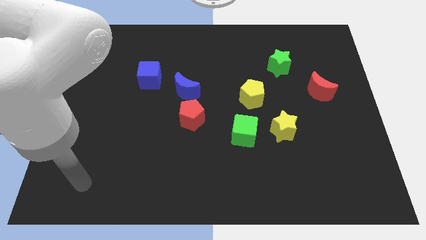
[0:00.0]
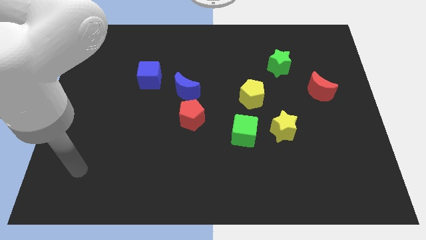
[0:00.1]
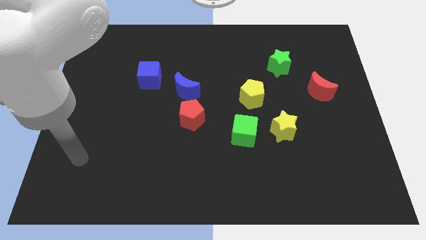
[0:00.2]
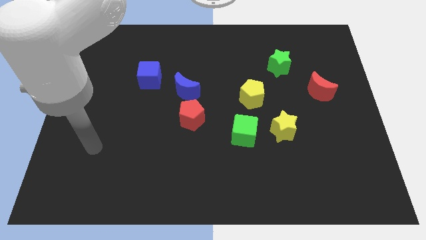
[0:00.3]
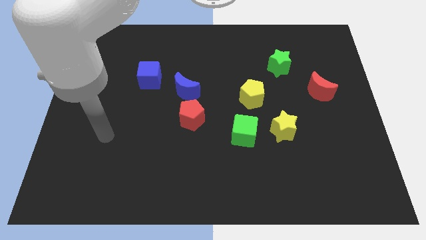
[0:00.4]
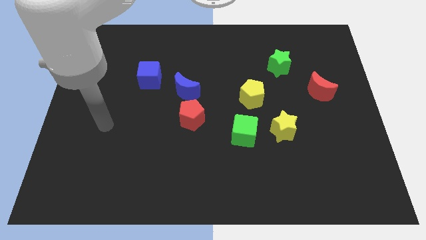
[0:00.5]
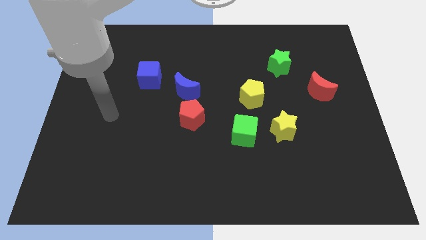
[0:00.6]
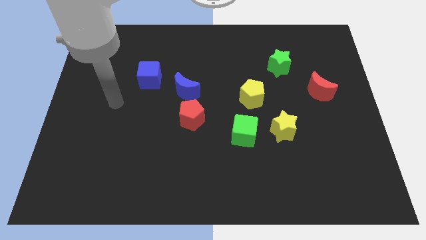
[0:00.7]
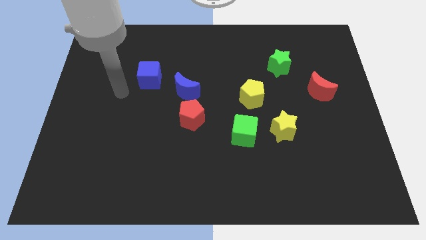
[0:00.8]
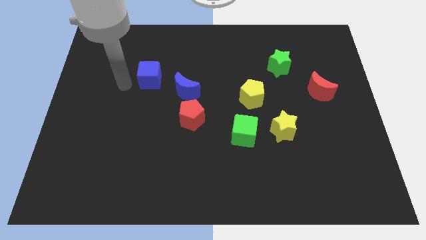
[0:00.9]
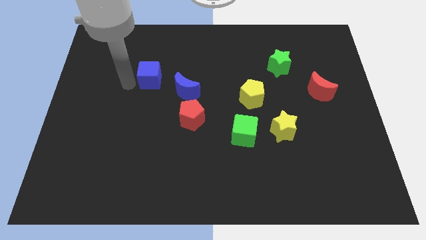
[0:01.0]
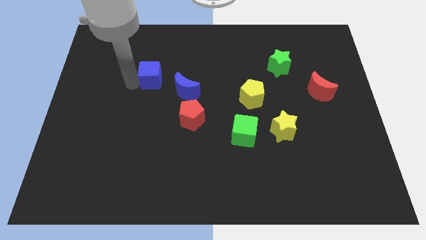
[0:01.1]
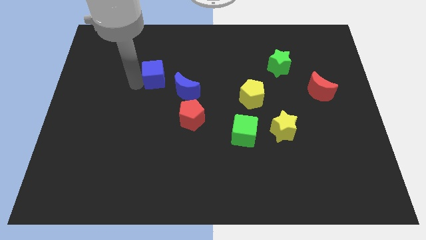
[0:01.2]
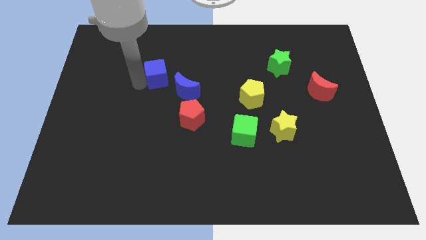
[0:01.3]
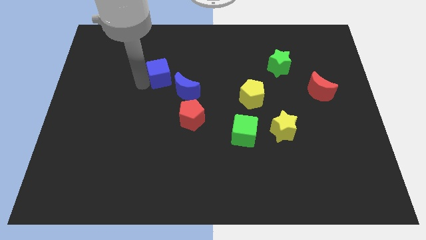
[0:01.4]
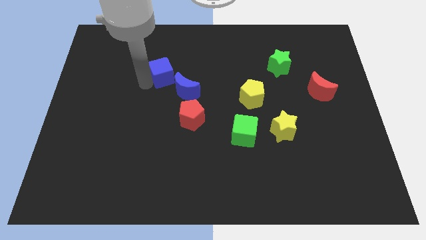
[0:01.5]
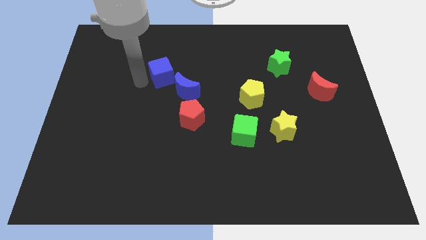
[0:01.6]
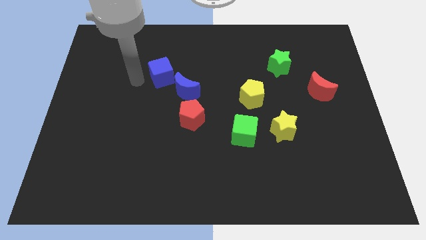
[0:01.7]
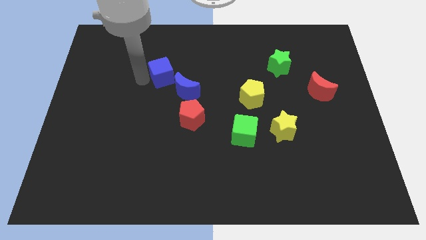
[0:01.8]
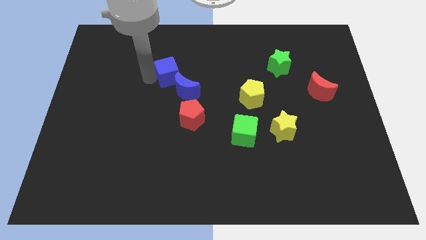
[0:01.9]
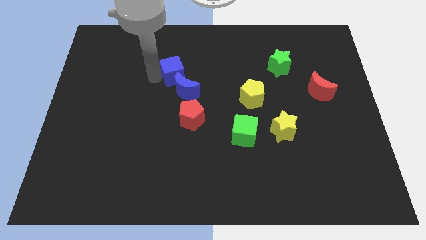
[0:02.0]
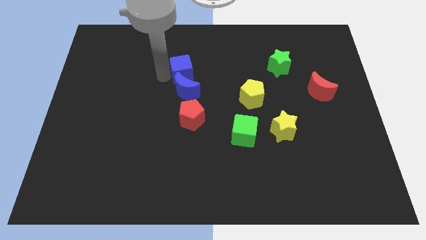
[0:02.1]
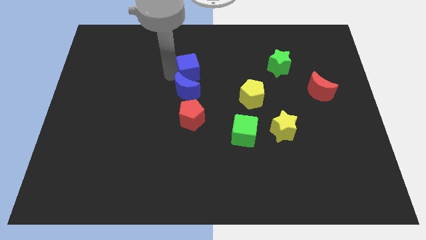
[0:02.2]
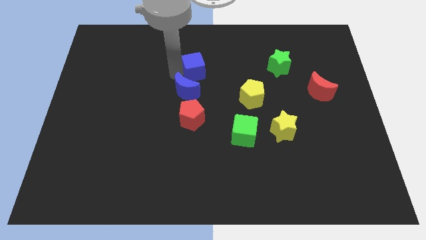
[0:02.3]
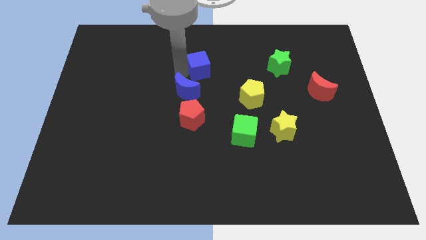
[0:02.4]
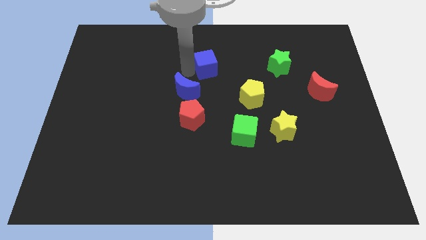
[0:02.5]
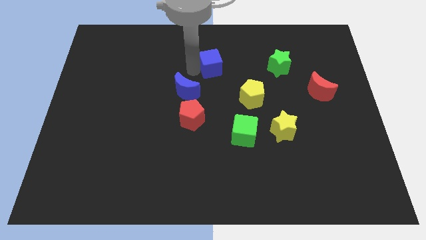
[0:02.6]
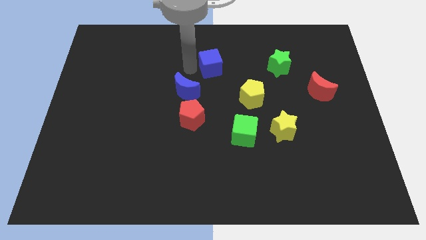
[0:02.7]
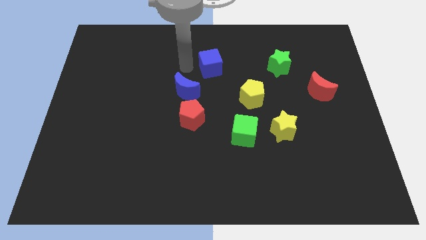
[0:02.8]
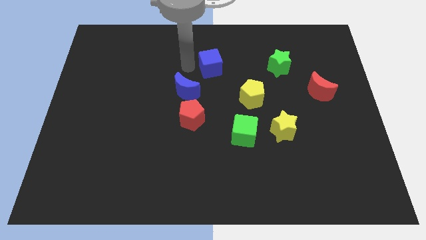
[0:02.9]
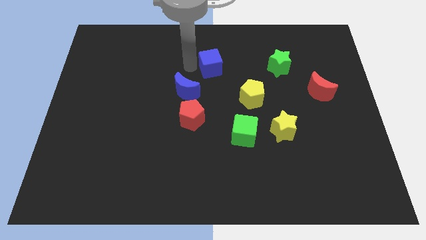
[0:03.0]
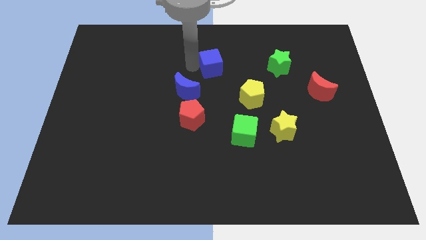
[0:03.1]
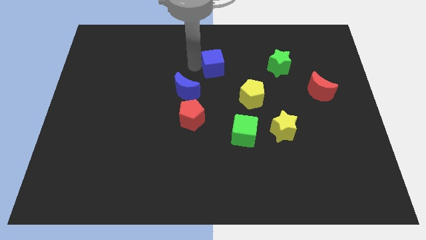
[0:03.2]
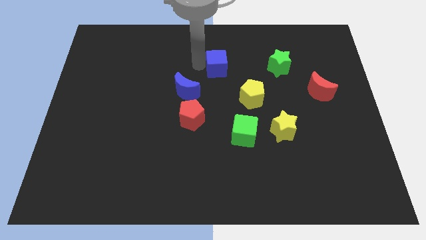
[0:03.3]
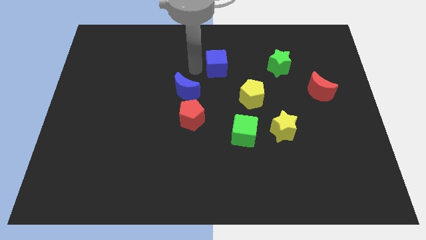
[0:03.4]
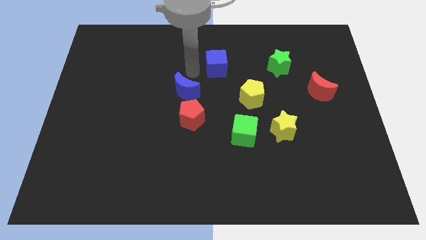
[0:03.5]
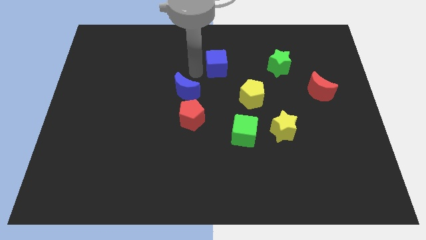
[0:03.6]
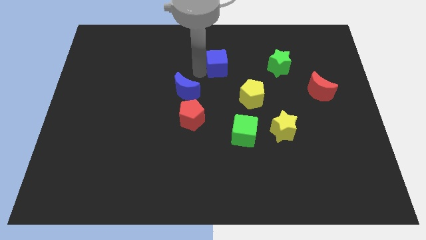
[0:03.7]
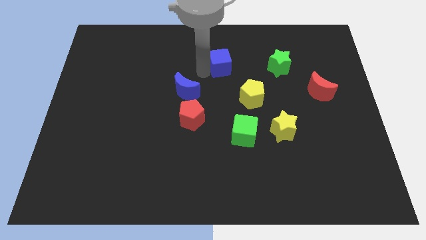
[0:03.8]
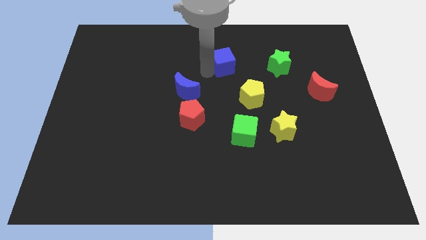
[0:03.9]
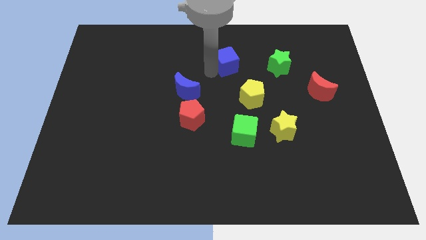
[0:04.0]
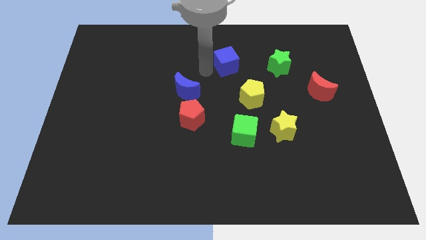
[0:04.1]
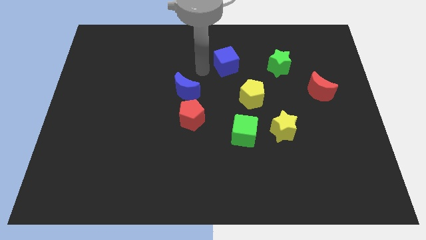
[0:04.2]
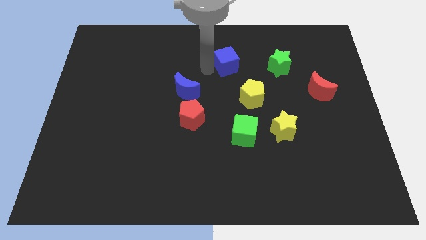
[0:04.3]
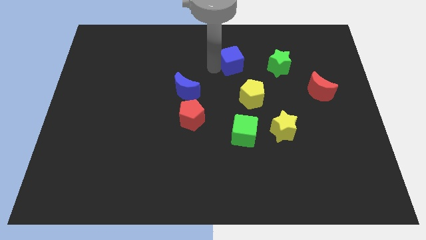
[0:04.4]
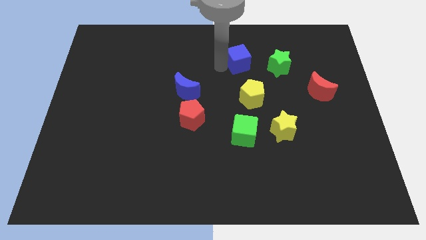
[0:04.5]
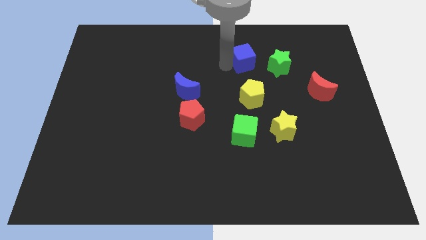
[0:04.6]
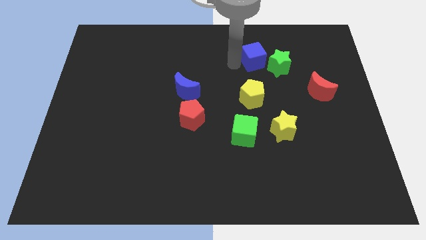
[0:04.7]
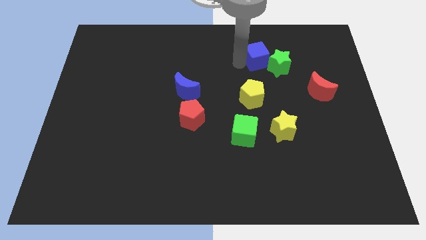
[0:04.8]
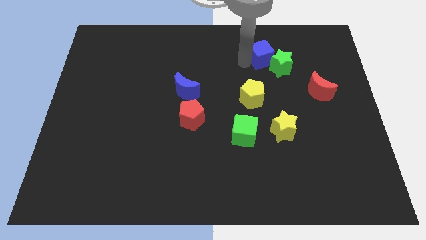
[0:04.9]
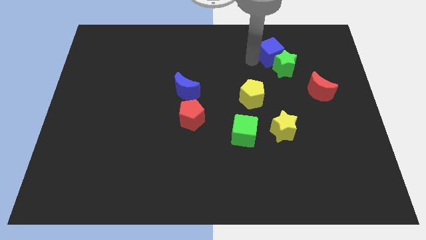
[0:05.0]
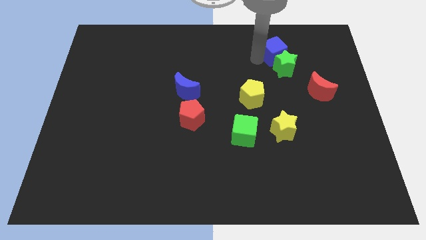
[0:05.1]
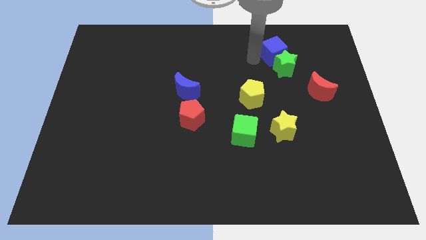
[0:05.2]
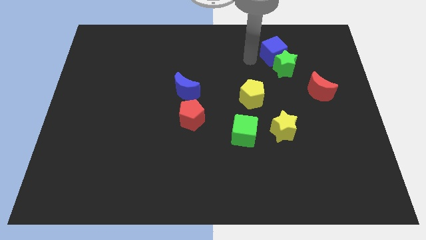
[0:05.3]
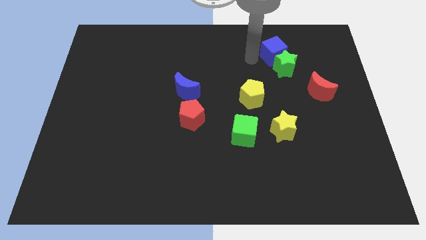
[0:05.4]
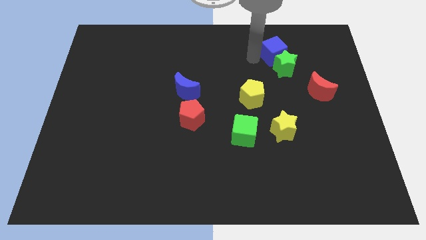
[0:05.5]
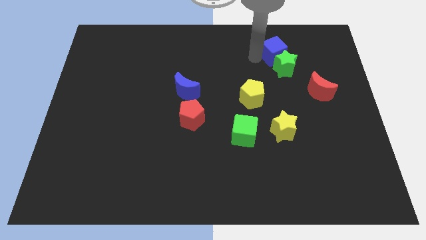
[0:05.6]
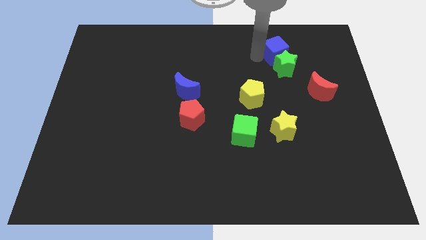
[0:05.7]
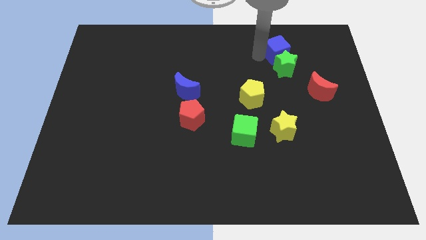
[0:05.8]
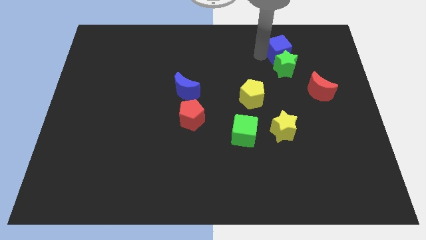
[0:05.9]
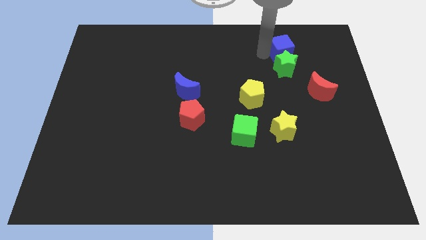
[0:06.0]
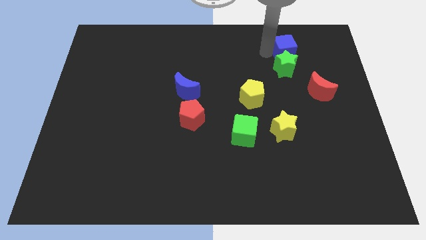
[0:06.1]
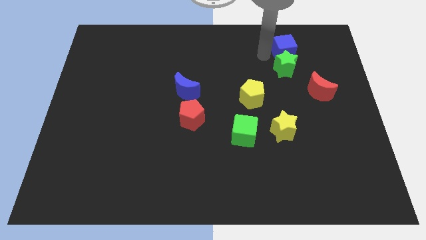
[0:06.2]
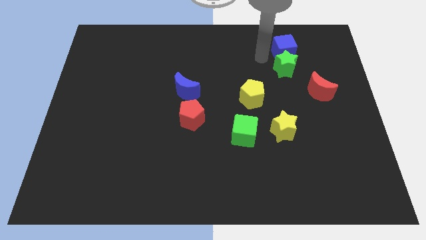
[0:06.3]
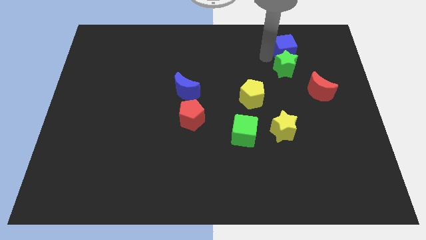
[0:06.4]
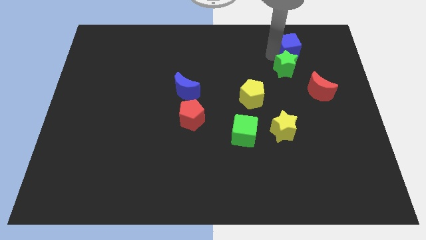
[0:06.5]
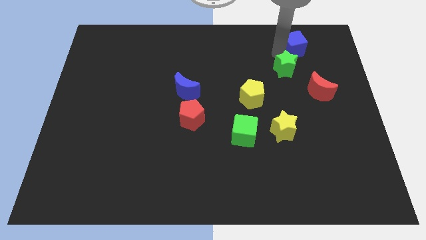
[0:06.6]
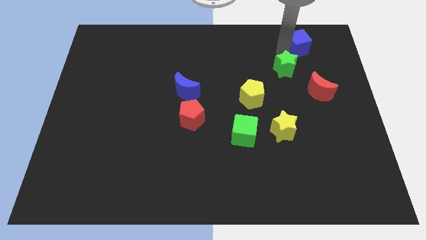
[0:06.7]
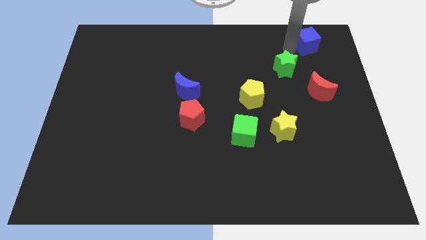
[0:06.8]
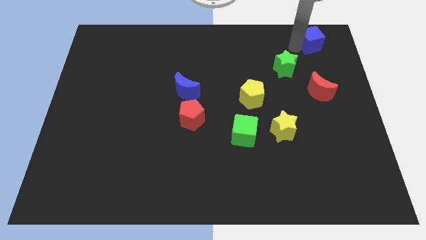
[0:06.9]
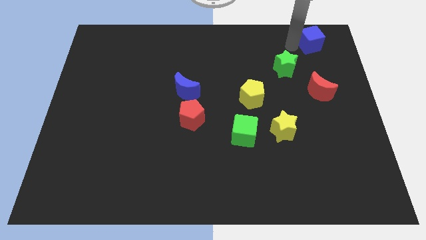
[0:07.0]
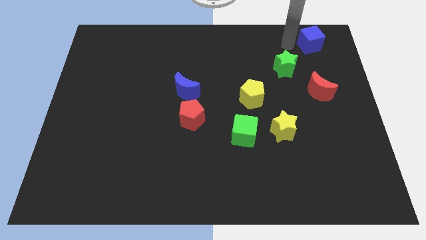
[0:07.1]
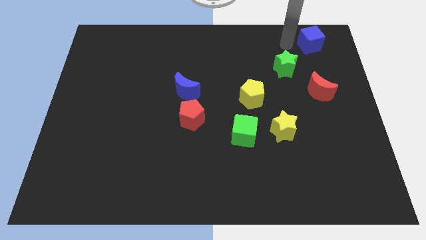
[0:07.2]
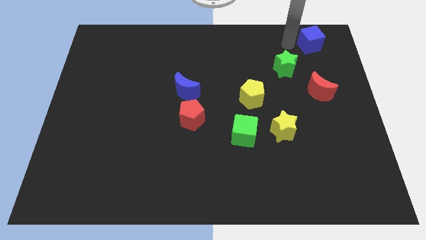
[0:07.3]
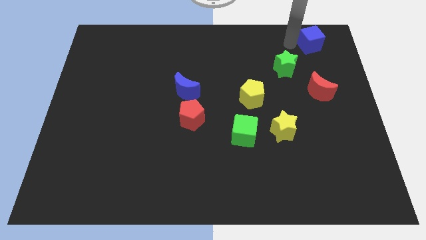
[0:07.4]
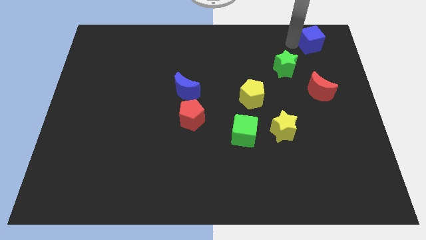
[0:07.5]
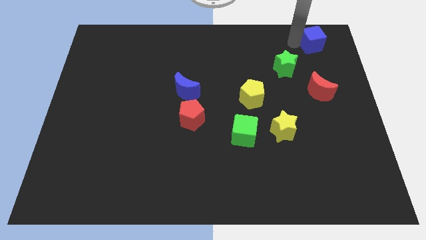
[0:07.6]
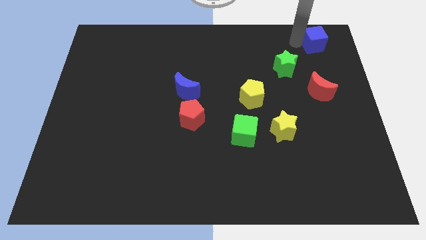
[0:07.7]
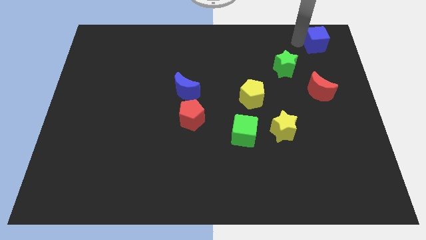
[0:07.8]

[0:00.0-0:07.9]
put the blue cube to the upper right corner
